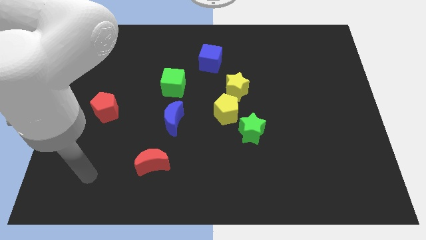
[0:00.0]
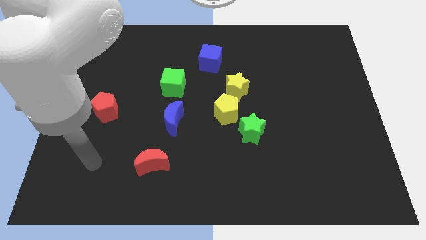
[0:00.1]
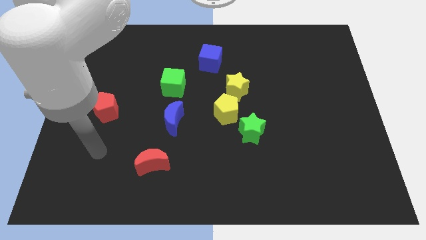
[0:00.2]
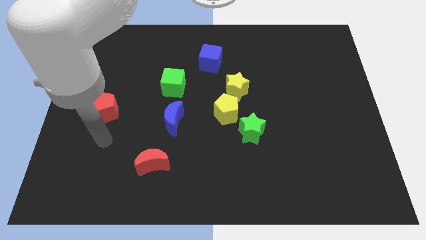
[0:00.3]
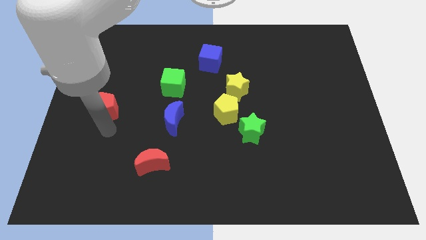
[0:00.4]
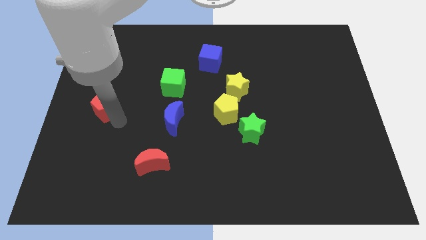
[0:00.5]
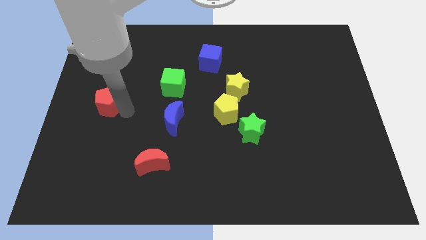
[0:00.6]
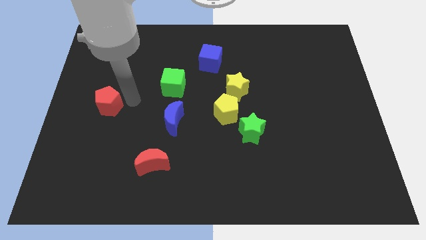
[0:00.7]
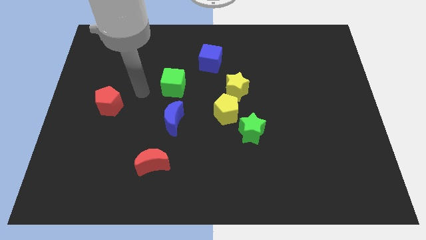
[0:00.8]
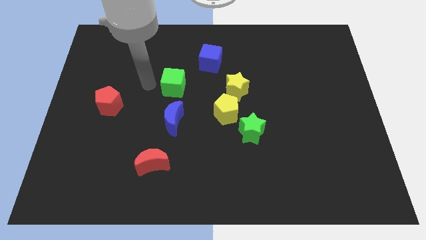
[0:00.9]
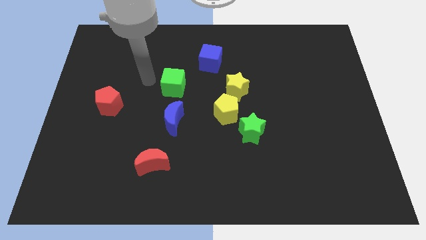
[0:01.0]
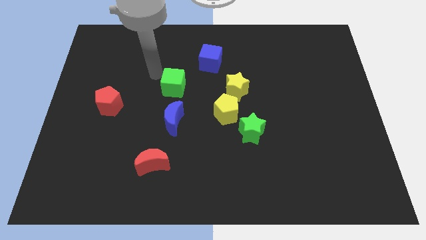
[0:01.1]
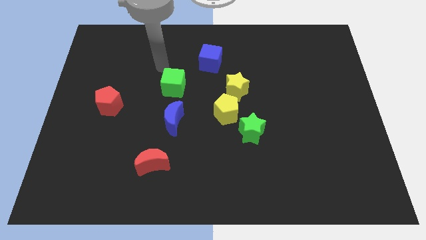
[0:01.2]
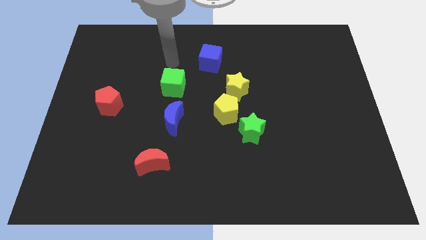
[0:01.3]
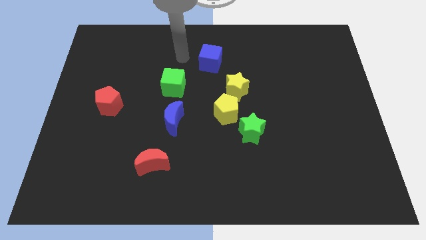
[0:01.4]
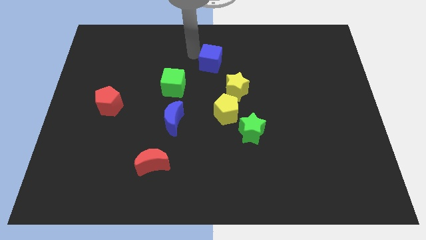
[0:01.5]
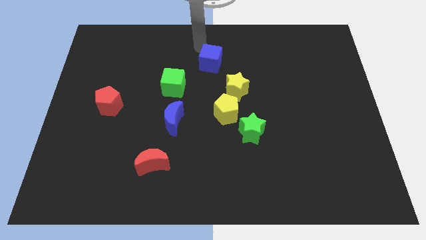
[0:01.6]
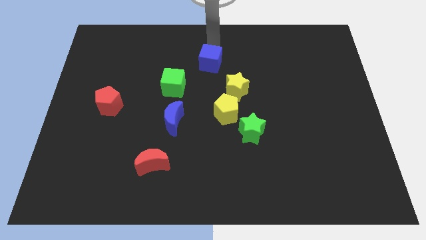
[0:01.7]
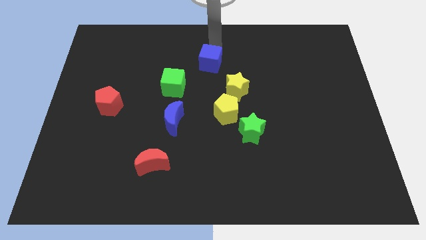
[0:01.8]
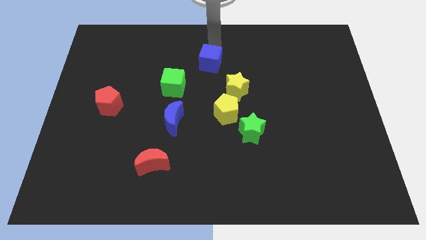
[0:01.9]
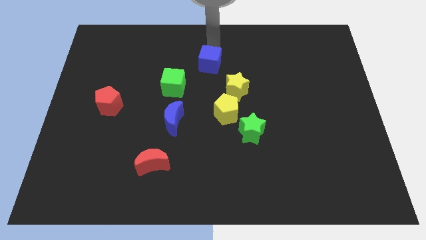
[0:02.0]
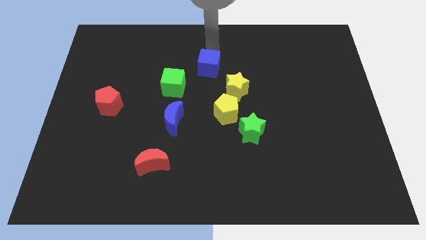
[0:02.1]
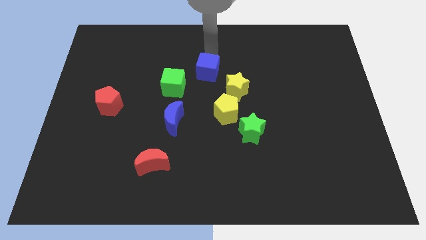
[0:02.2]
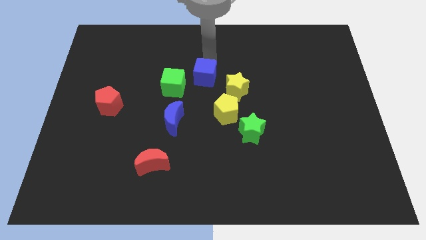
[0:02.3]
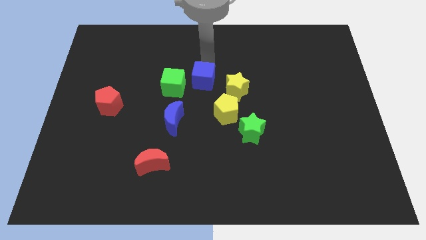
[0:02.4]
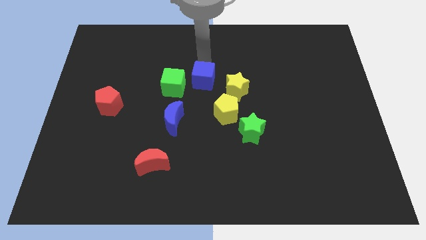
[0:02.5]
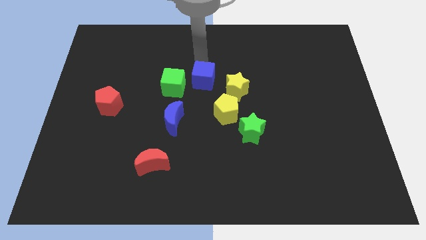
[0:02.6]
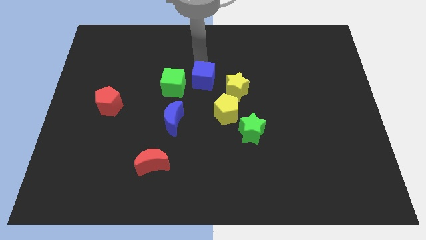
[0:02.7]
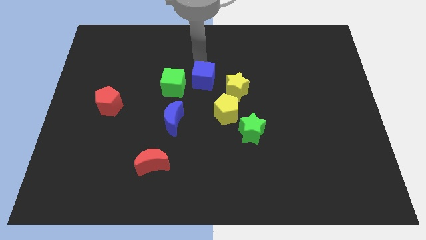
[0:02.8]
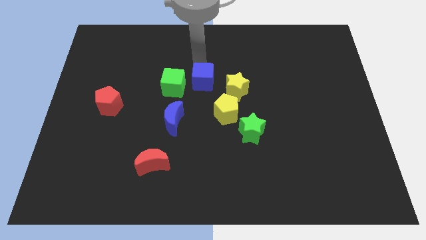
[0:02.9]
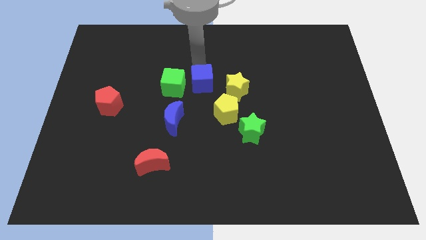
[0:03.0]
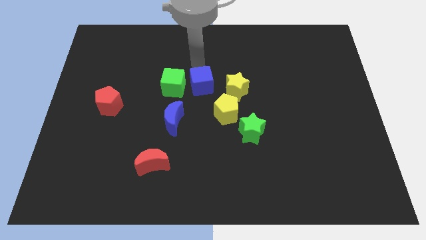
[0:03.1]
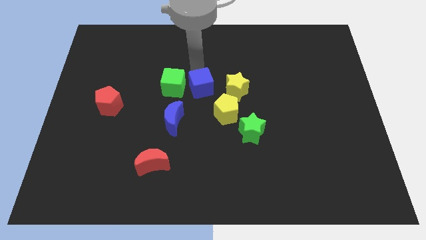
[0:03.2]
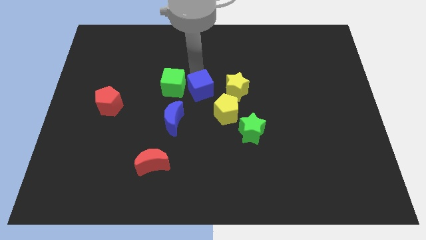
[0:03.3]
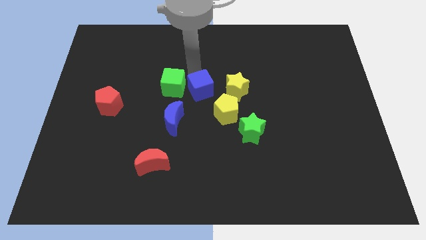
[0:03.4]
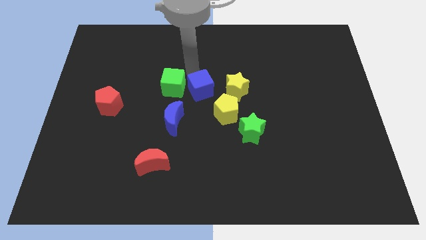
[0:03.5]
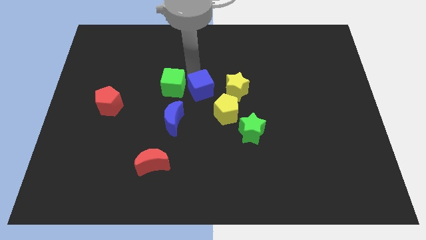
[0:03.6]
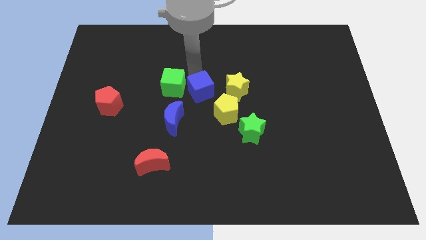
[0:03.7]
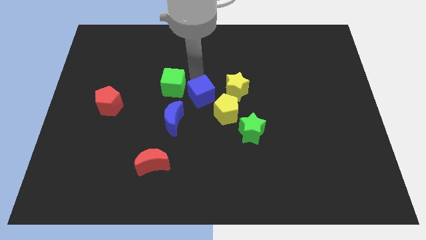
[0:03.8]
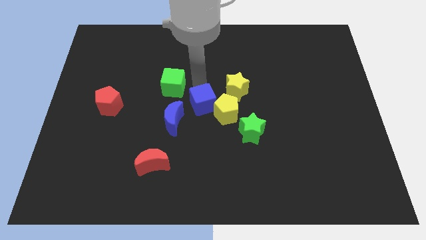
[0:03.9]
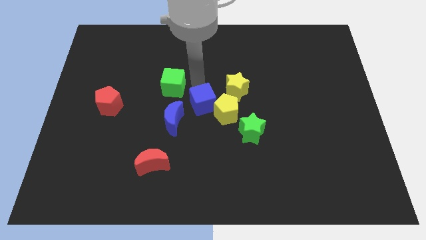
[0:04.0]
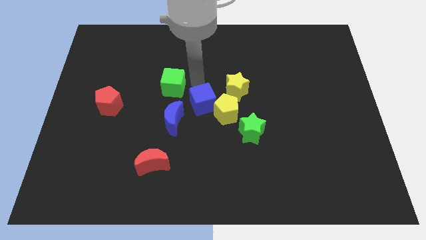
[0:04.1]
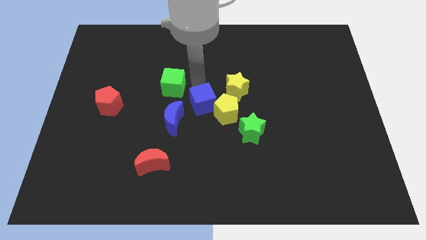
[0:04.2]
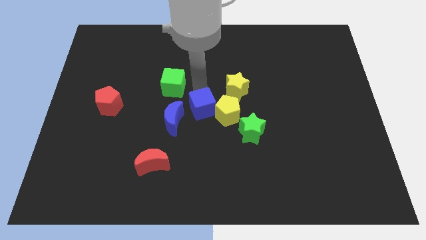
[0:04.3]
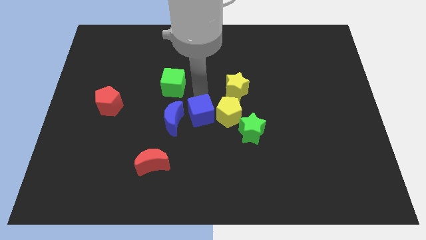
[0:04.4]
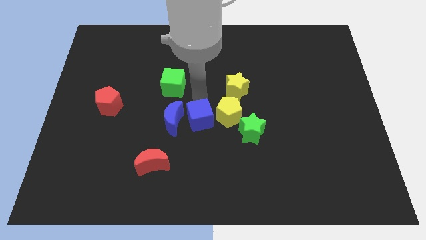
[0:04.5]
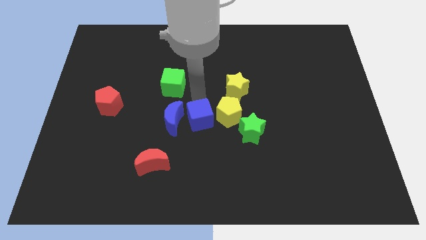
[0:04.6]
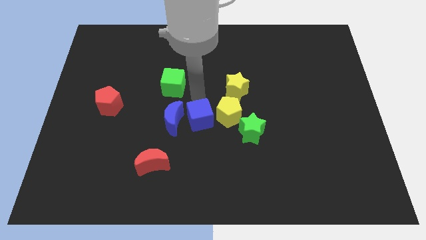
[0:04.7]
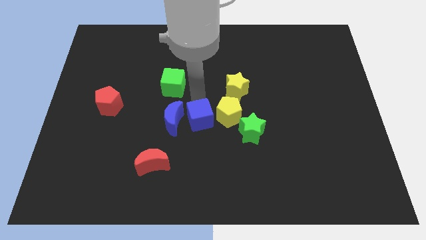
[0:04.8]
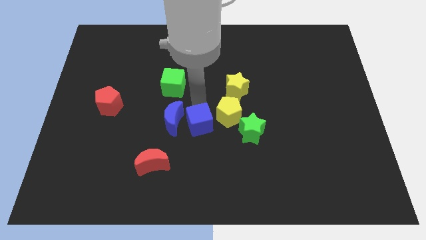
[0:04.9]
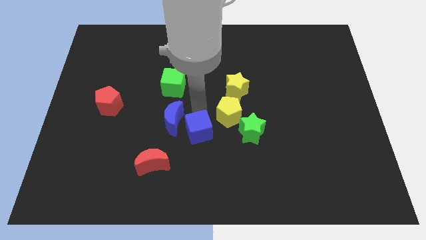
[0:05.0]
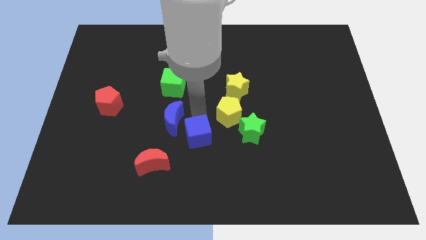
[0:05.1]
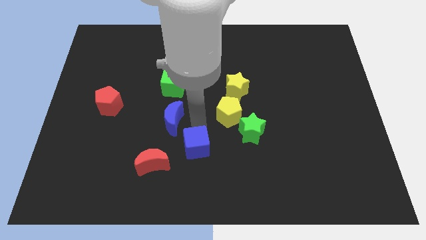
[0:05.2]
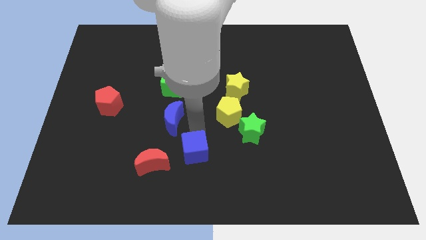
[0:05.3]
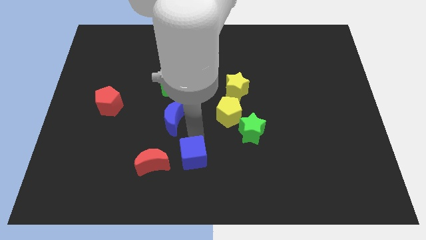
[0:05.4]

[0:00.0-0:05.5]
move the blue cube to the bottom
